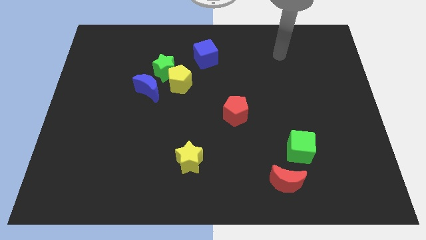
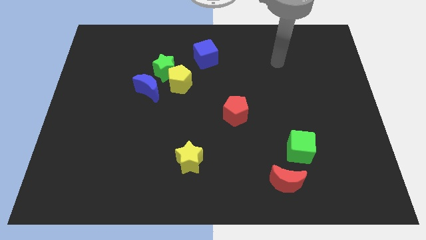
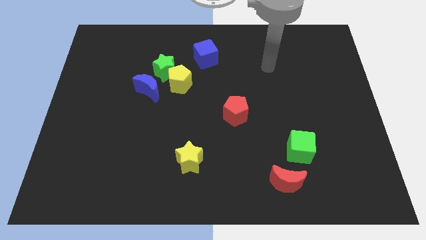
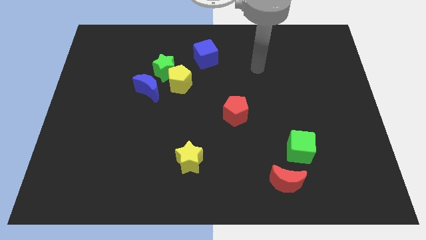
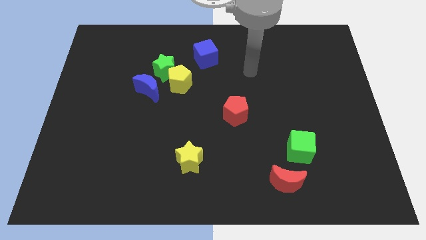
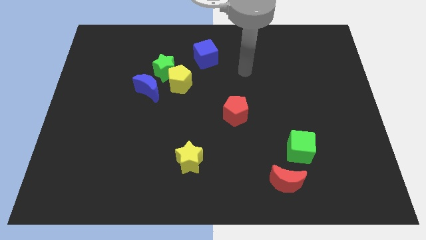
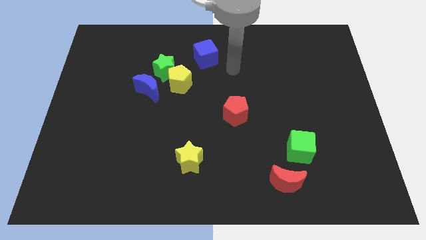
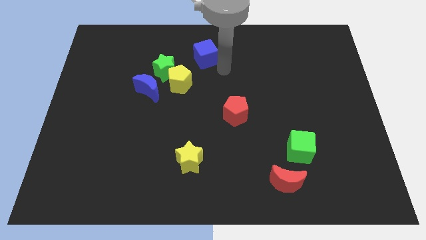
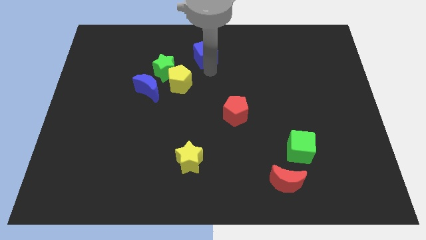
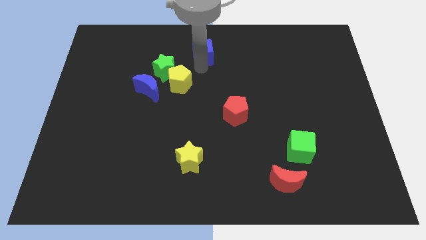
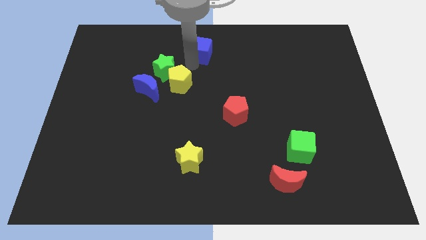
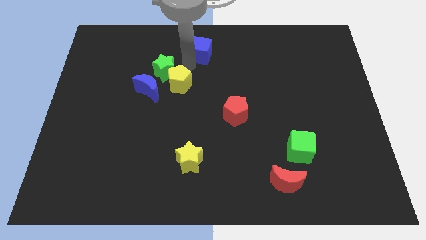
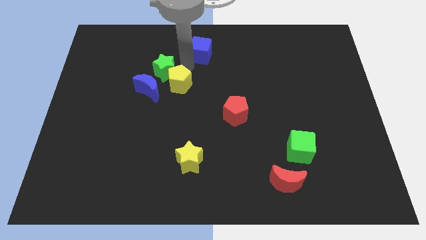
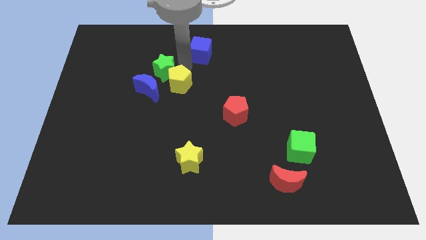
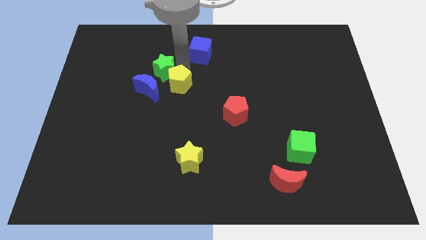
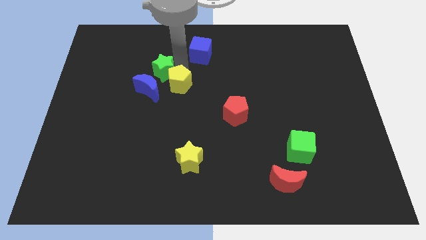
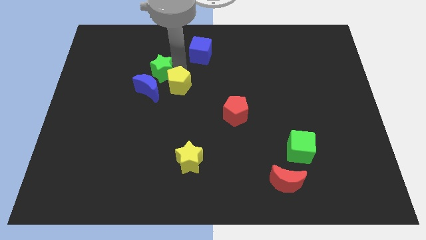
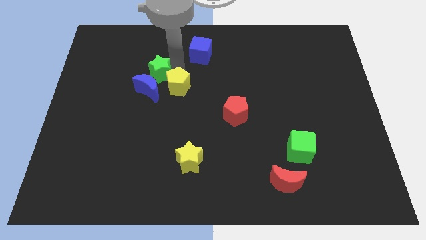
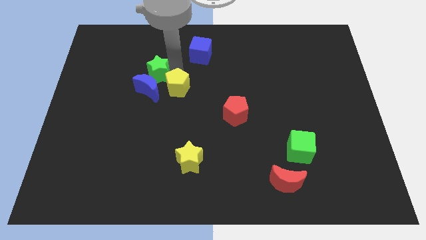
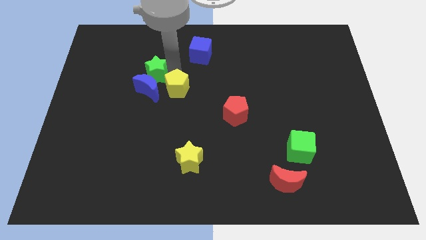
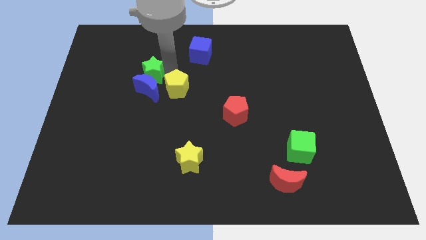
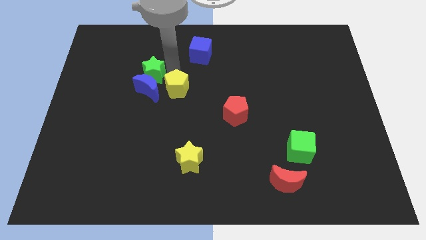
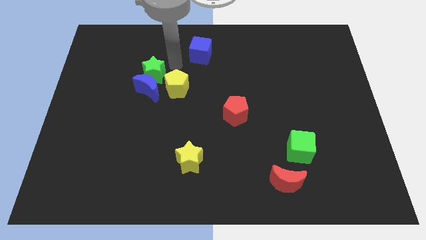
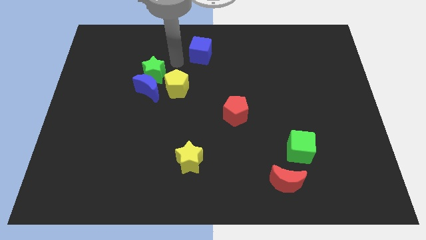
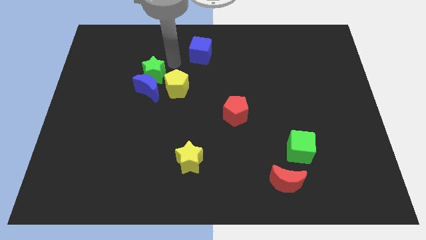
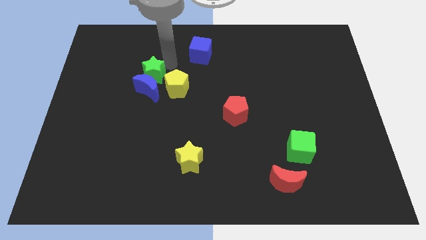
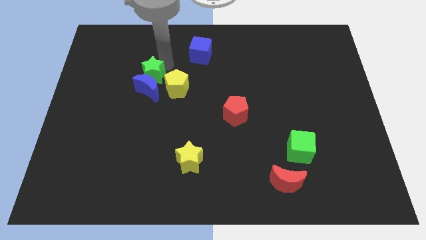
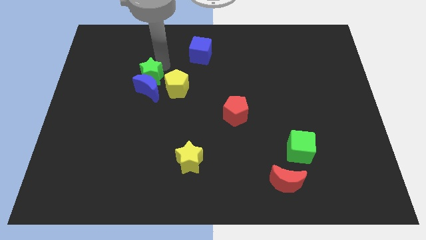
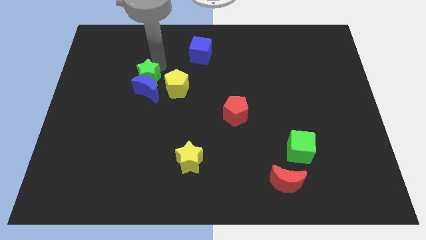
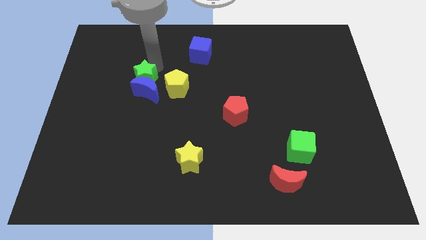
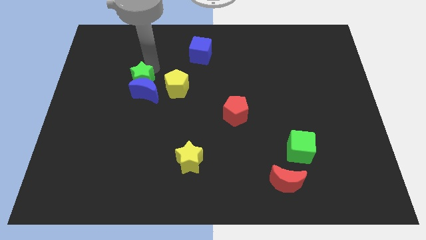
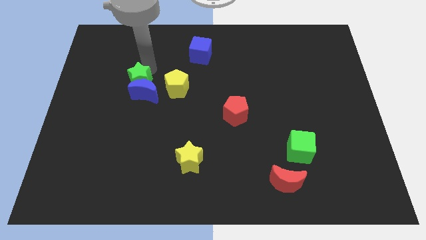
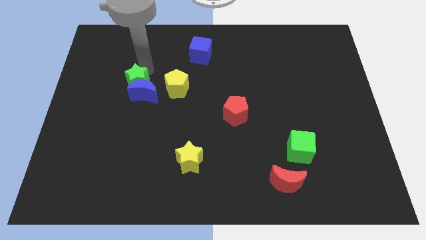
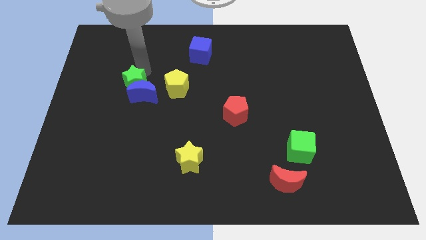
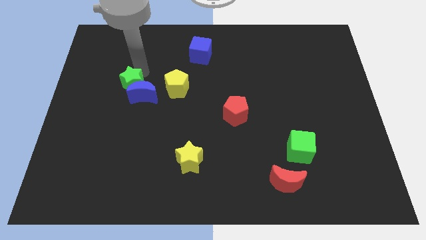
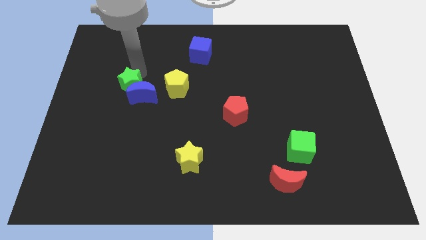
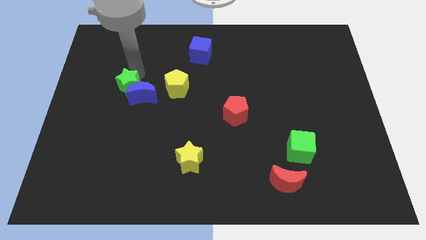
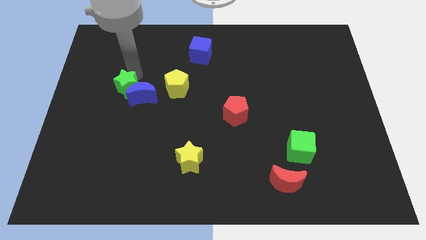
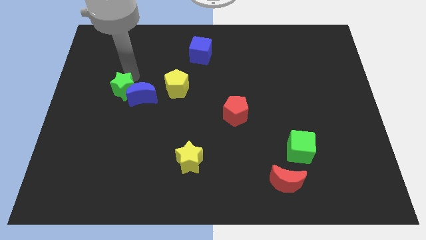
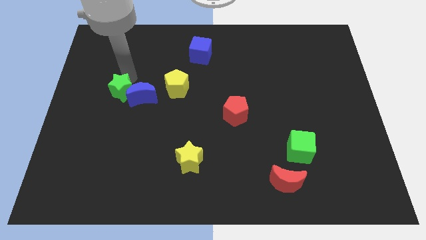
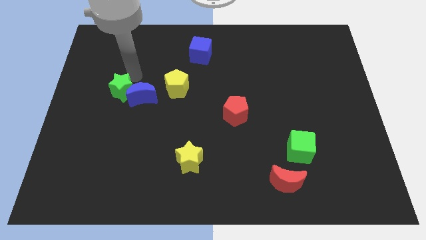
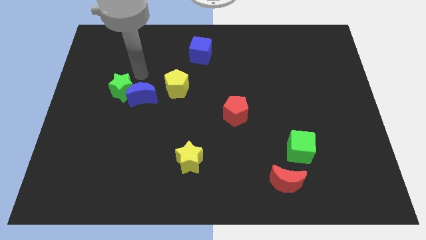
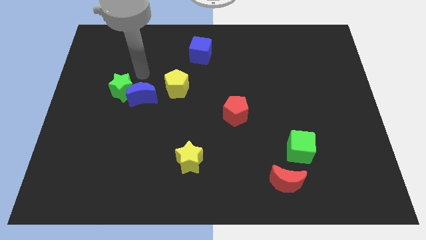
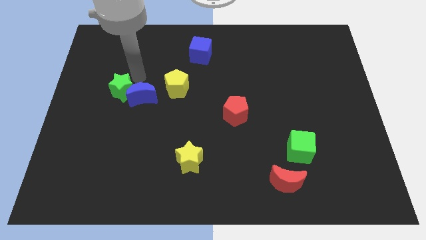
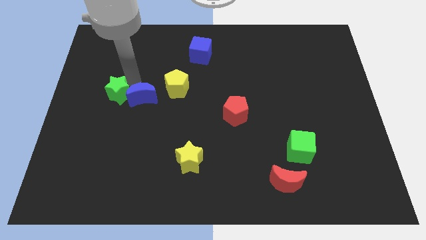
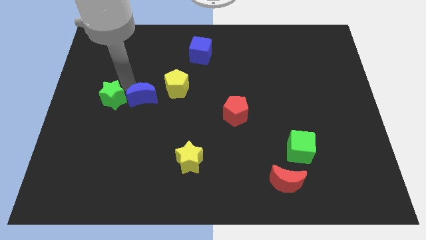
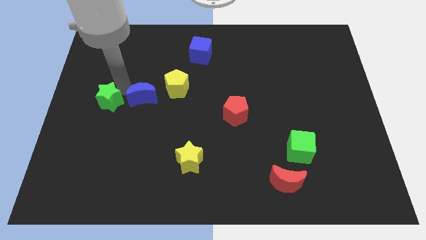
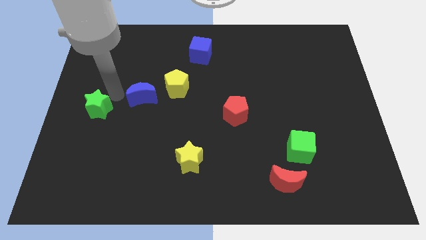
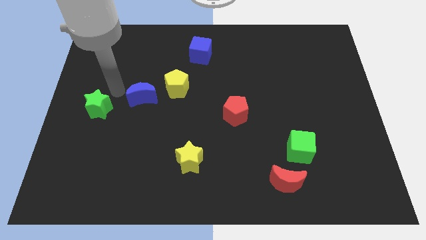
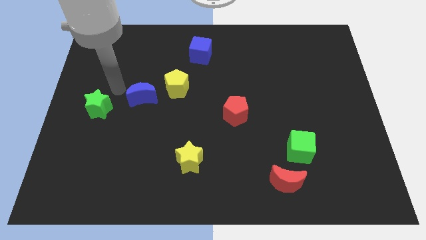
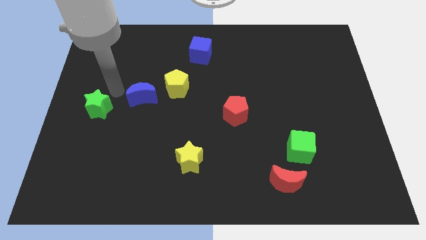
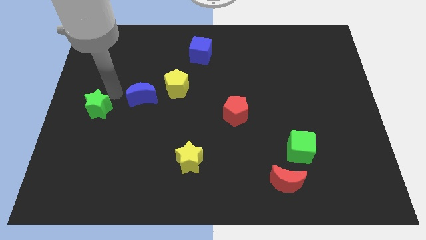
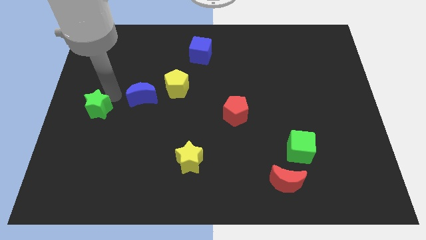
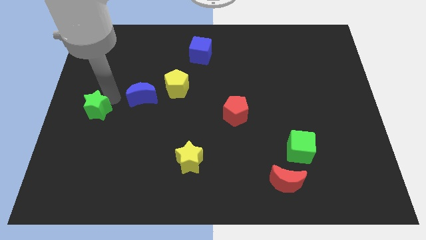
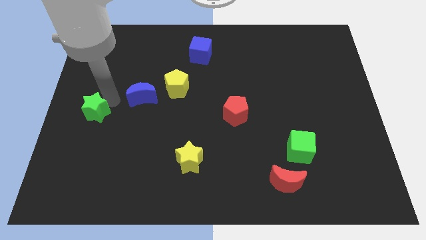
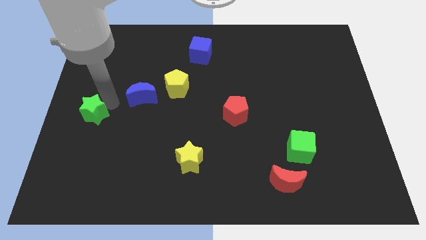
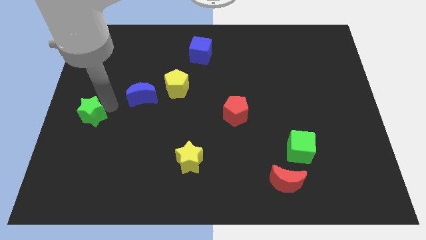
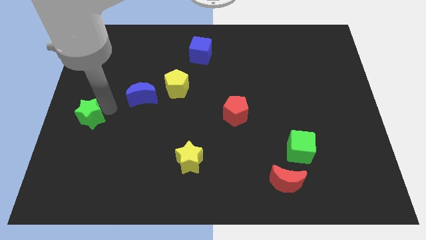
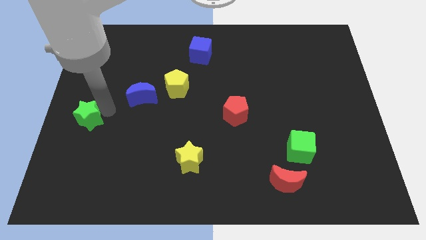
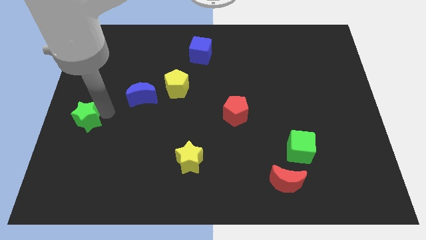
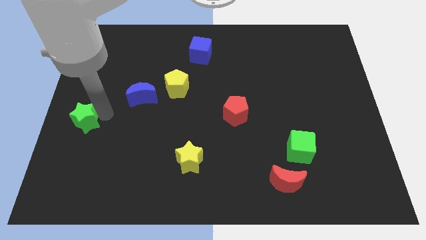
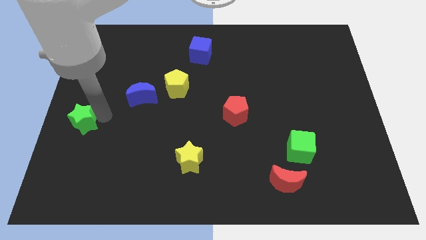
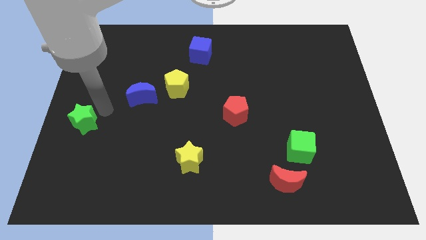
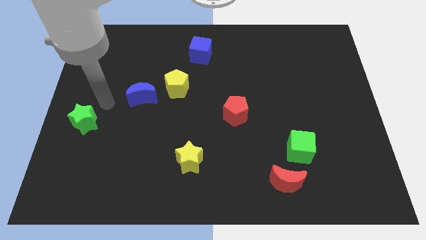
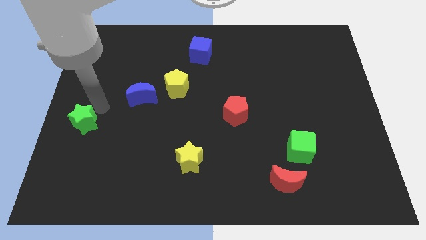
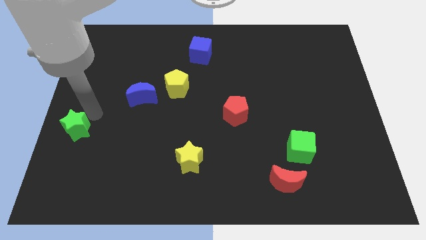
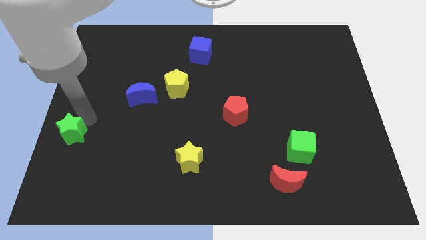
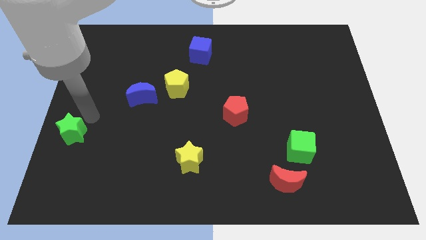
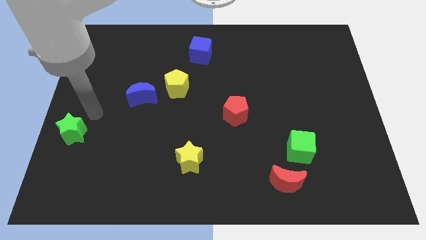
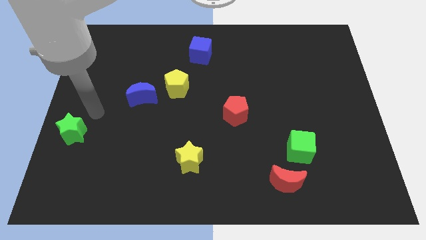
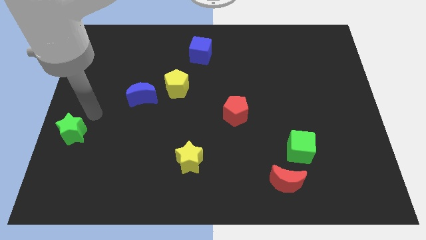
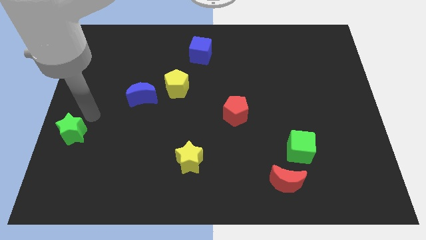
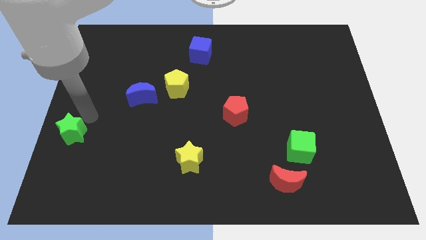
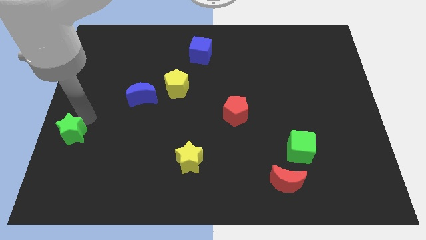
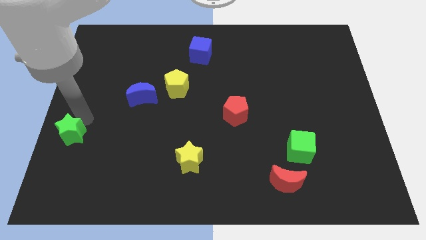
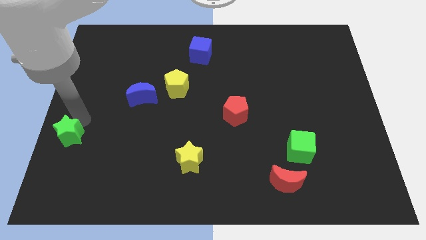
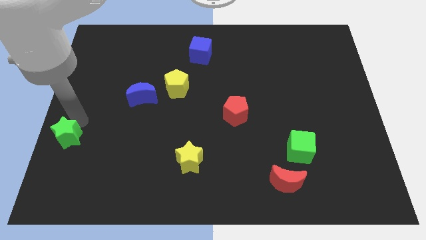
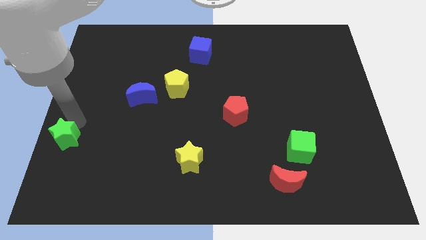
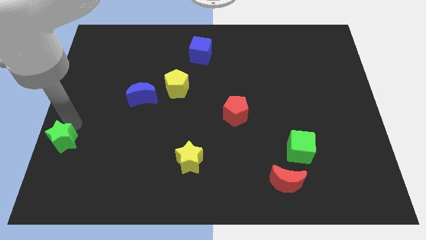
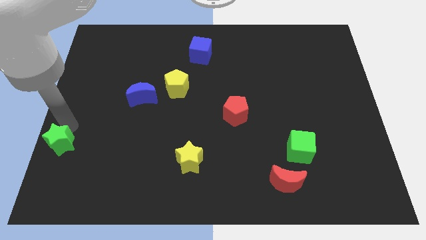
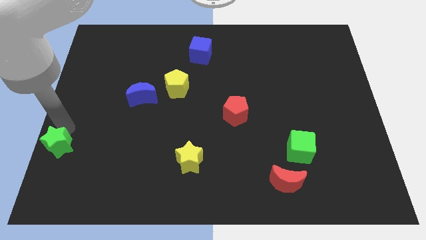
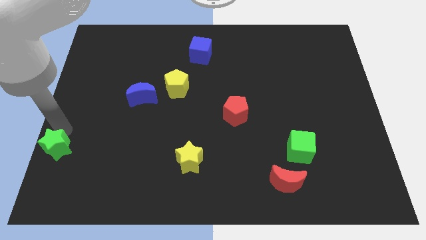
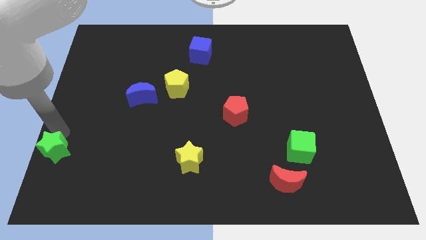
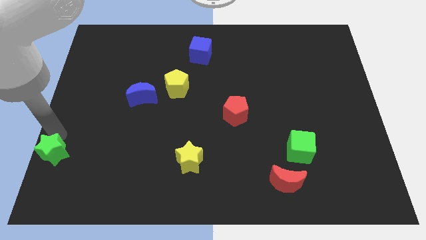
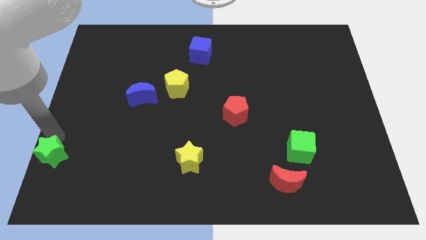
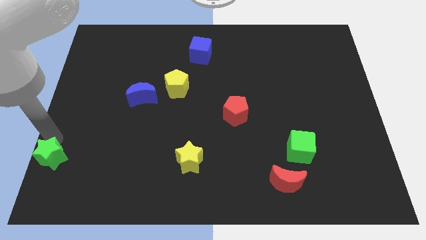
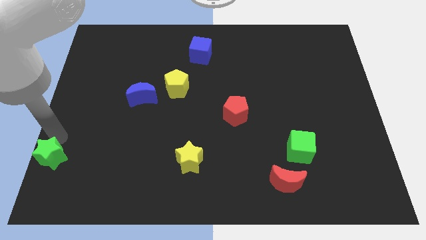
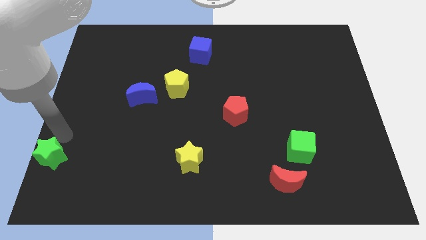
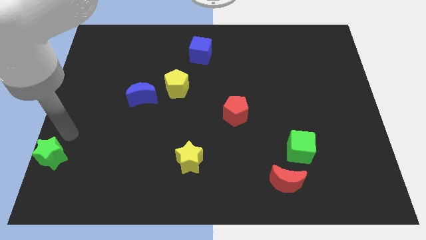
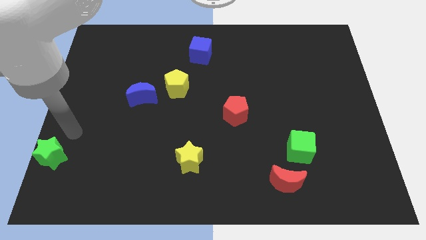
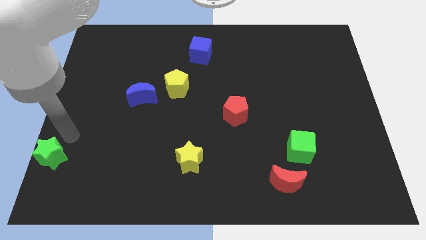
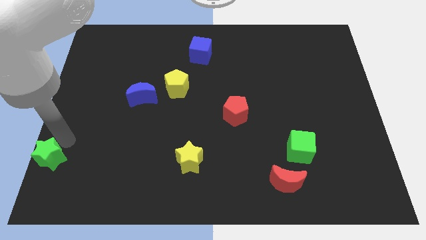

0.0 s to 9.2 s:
move the green star to the bottom left
